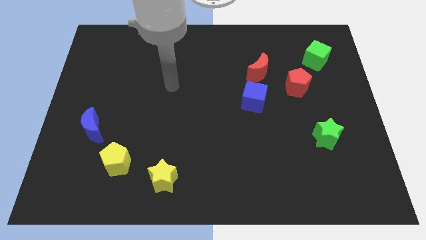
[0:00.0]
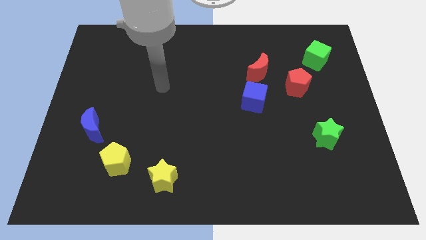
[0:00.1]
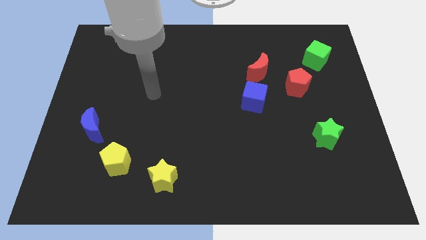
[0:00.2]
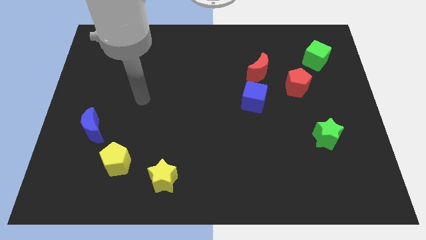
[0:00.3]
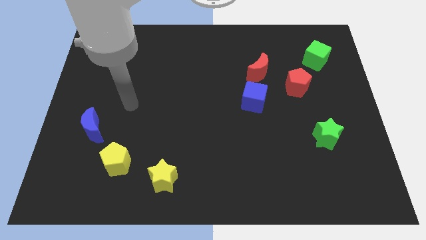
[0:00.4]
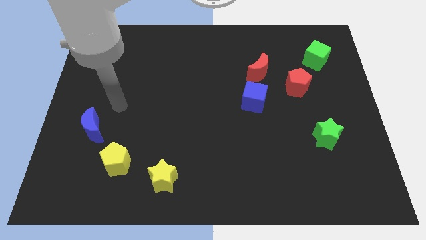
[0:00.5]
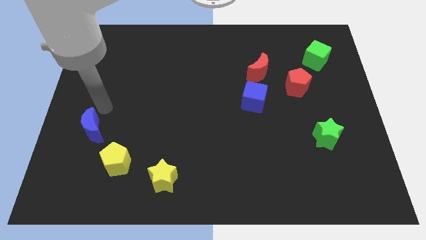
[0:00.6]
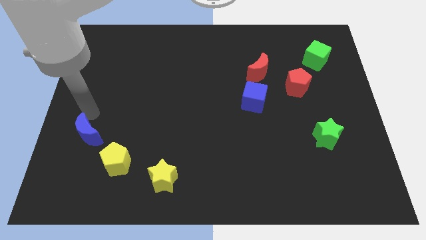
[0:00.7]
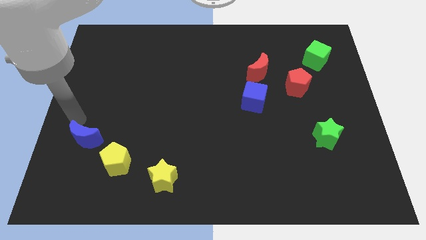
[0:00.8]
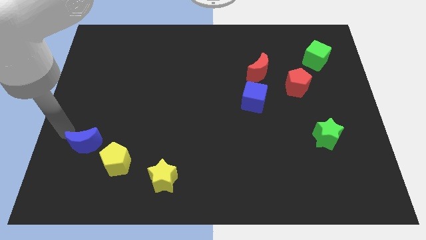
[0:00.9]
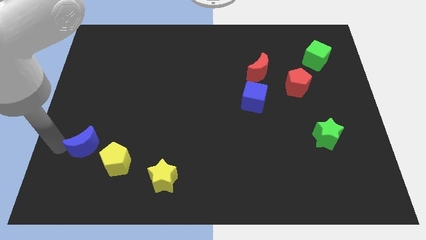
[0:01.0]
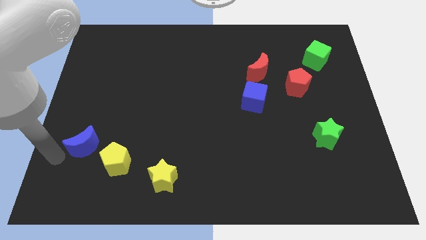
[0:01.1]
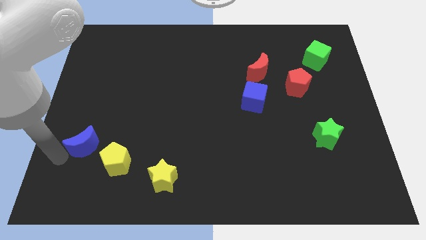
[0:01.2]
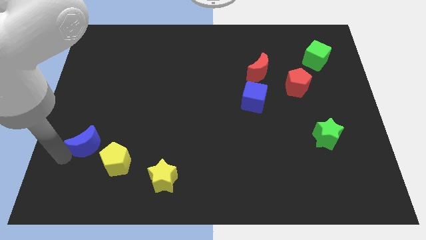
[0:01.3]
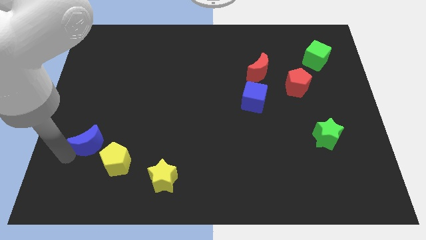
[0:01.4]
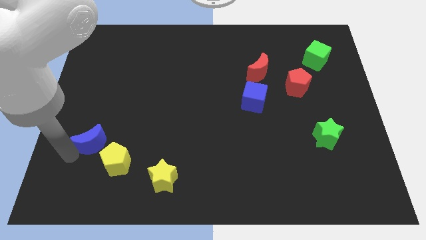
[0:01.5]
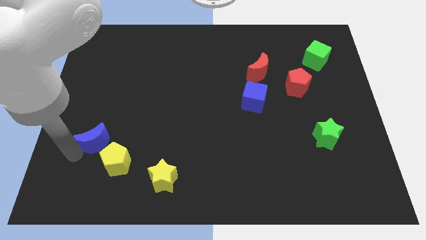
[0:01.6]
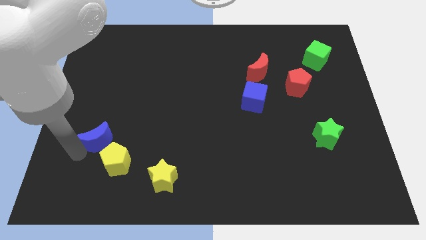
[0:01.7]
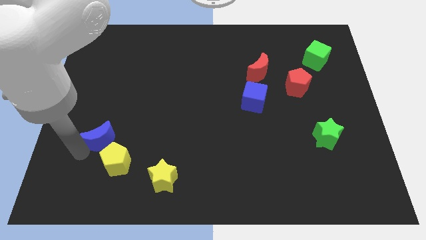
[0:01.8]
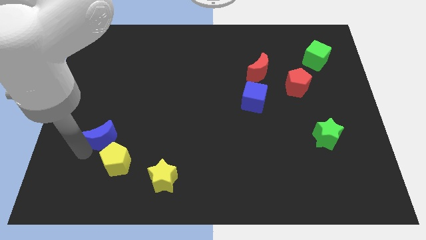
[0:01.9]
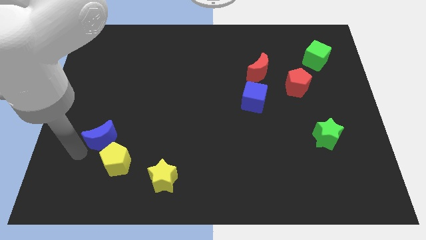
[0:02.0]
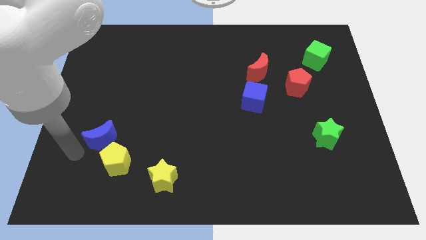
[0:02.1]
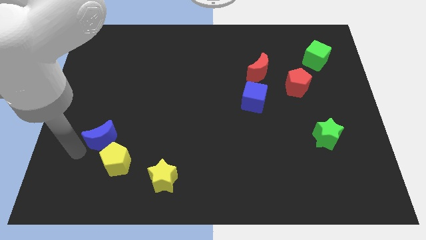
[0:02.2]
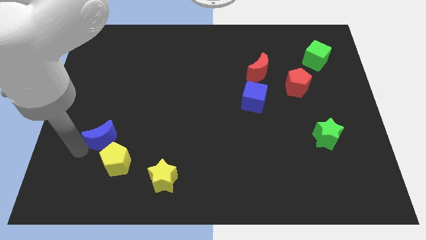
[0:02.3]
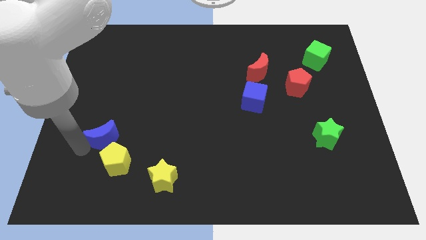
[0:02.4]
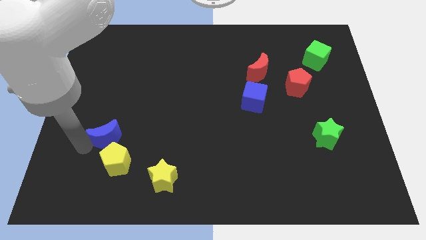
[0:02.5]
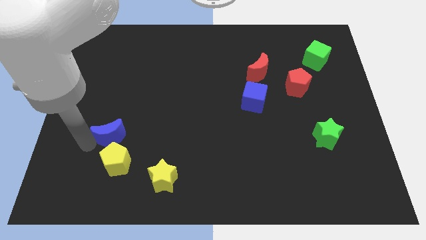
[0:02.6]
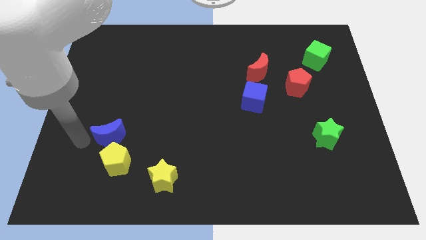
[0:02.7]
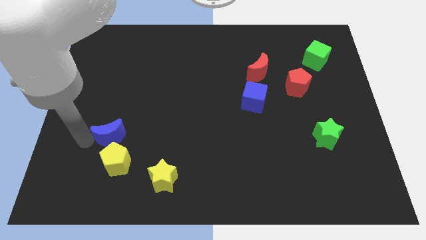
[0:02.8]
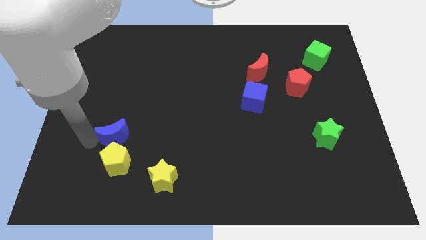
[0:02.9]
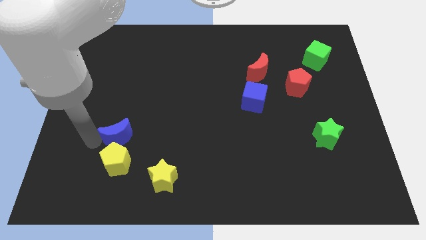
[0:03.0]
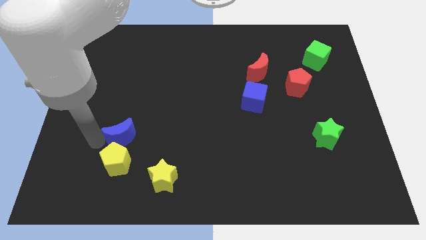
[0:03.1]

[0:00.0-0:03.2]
slide the blue moon slightly right

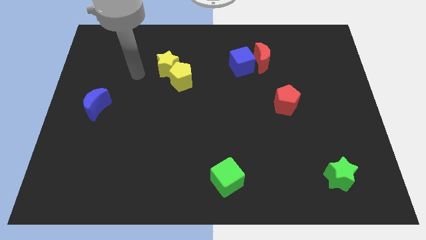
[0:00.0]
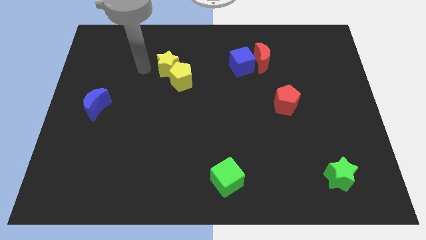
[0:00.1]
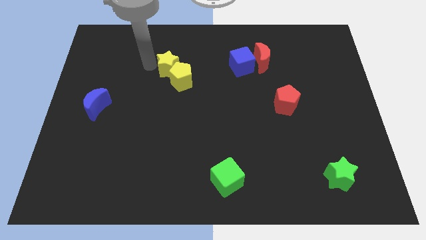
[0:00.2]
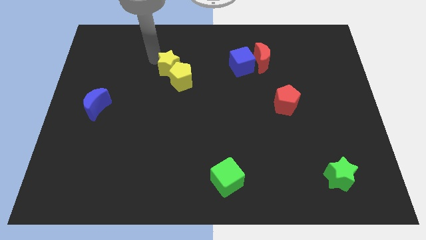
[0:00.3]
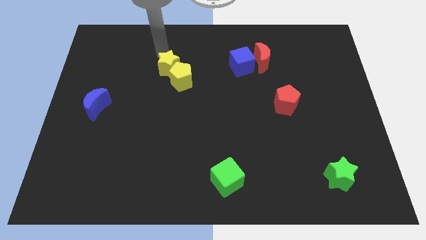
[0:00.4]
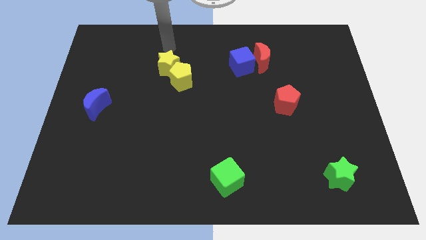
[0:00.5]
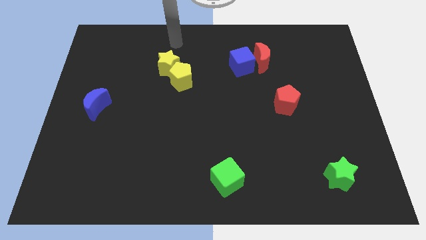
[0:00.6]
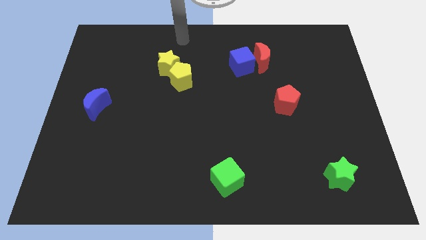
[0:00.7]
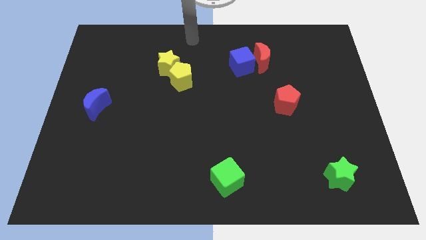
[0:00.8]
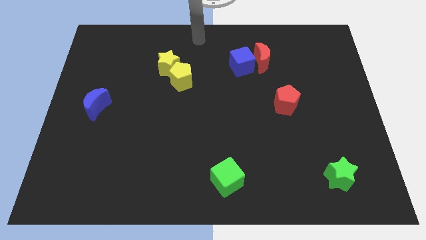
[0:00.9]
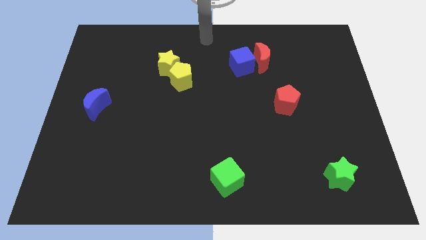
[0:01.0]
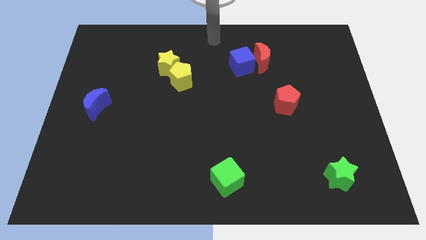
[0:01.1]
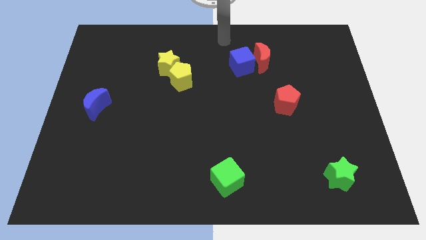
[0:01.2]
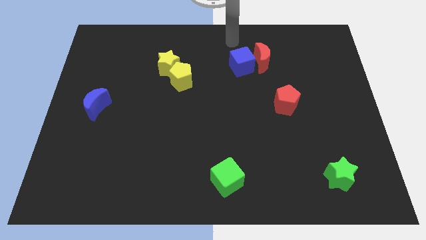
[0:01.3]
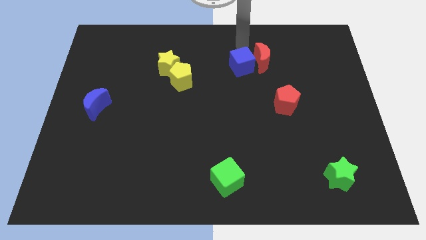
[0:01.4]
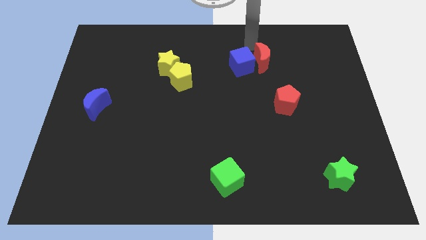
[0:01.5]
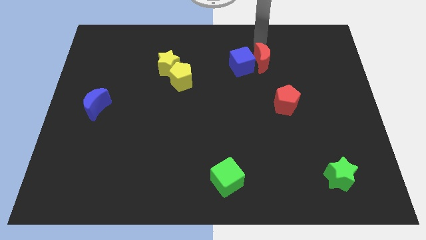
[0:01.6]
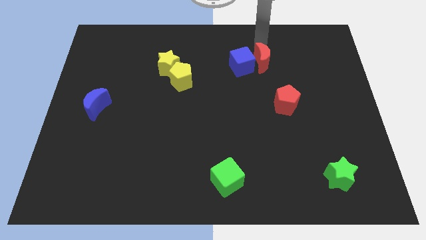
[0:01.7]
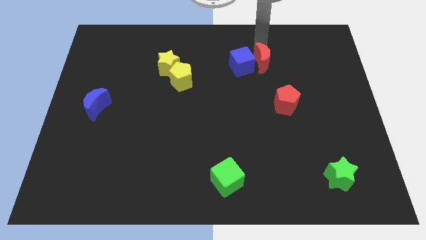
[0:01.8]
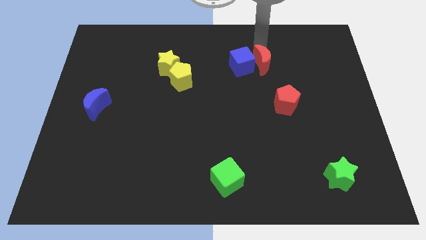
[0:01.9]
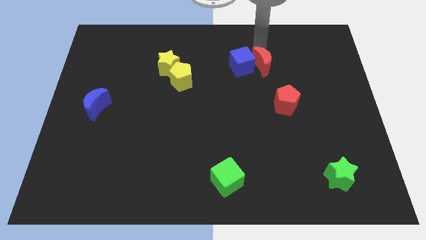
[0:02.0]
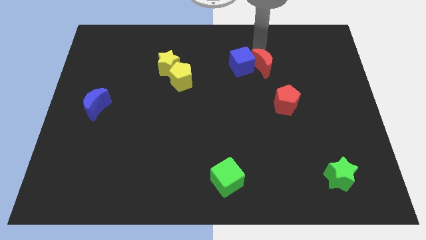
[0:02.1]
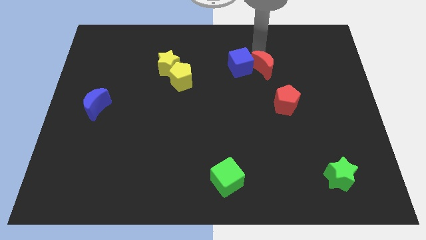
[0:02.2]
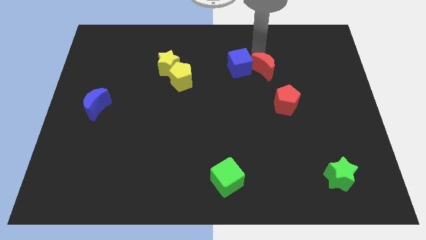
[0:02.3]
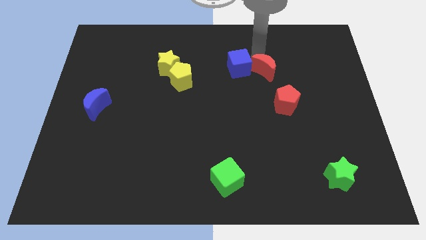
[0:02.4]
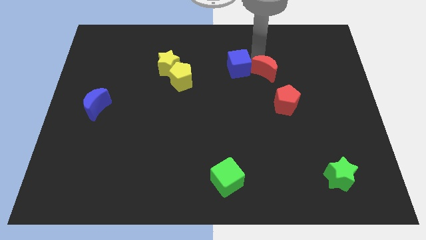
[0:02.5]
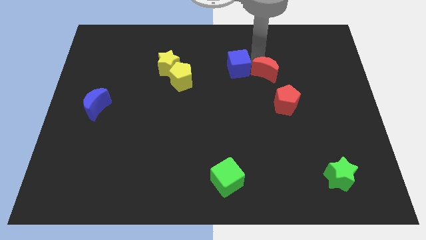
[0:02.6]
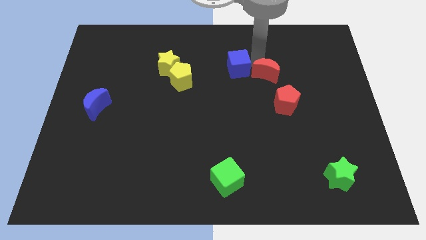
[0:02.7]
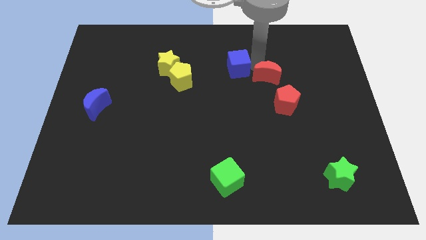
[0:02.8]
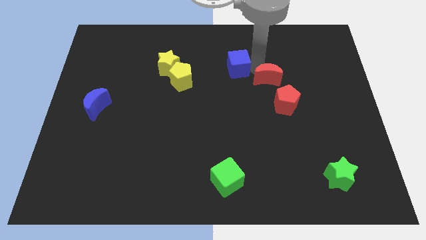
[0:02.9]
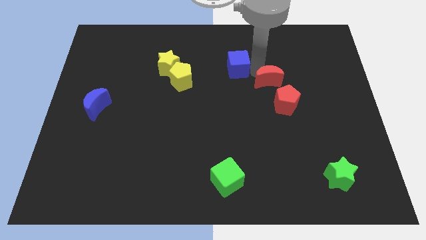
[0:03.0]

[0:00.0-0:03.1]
slide the red moon a little bit downwards

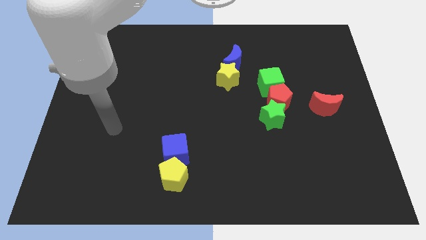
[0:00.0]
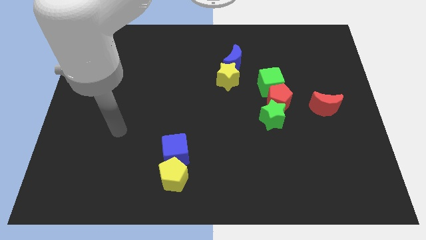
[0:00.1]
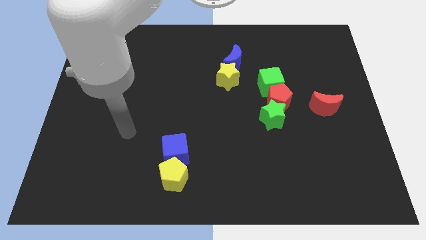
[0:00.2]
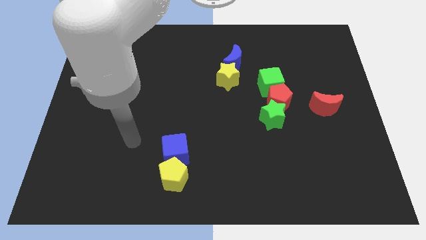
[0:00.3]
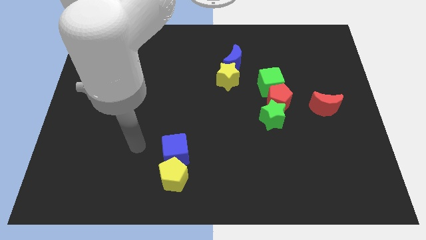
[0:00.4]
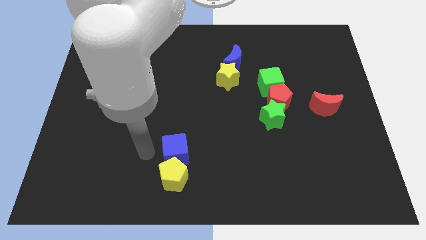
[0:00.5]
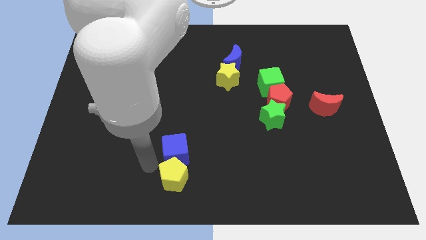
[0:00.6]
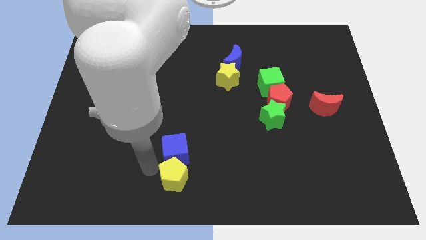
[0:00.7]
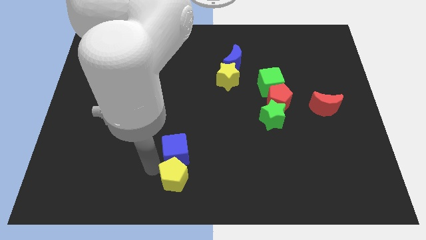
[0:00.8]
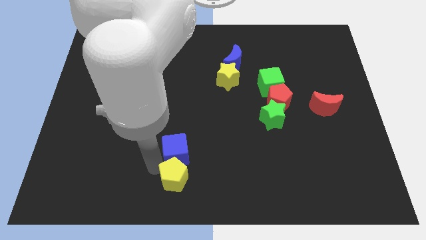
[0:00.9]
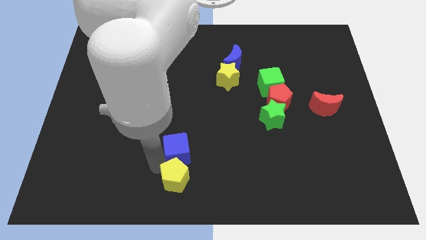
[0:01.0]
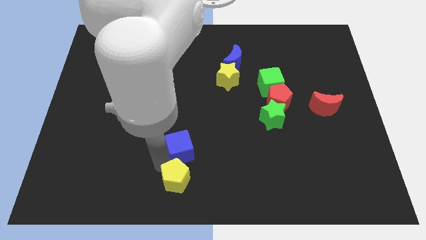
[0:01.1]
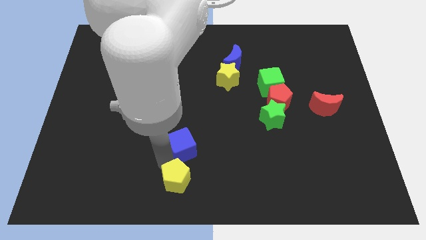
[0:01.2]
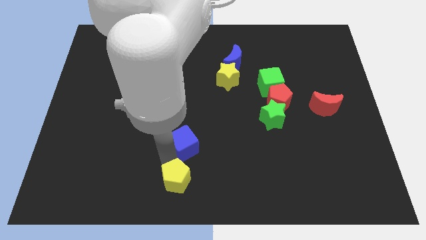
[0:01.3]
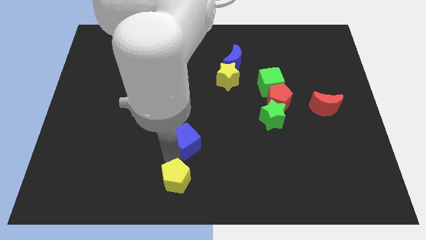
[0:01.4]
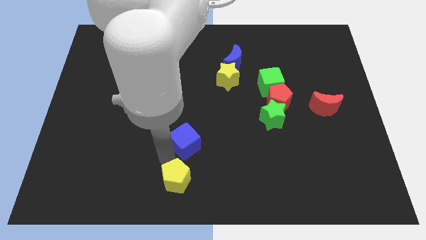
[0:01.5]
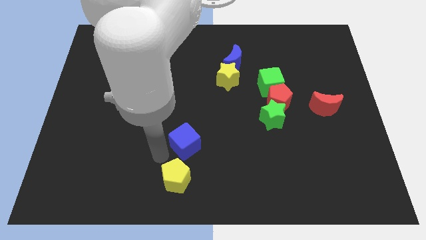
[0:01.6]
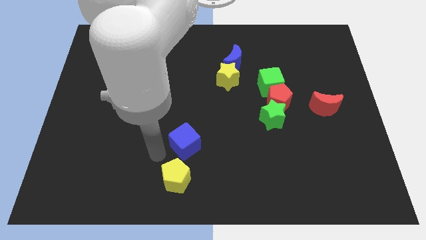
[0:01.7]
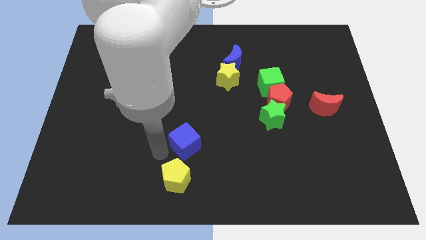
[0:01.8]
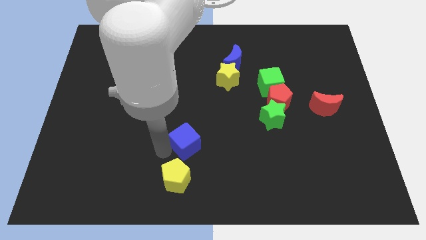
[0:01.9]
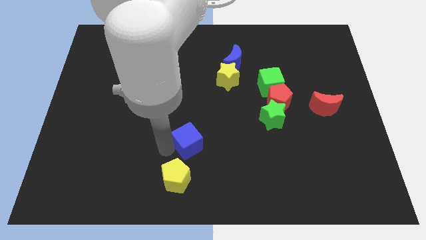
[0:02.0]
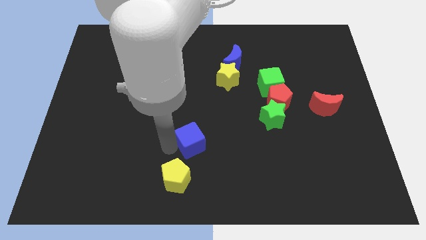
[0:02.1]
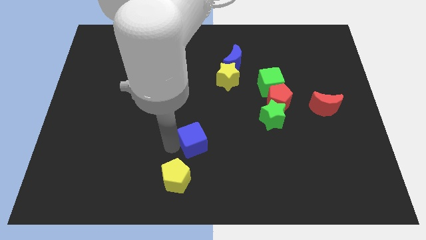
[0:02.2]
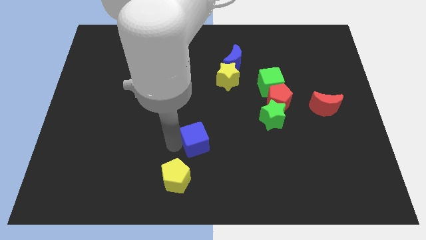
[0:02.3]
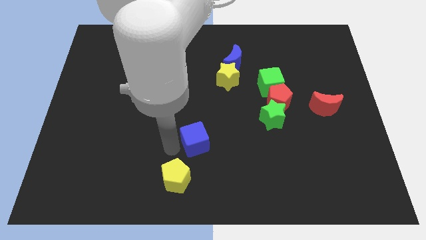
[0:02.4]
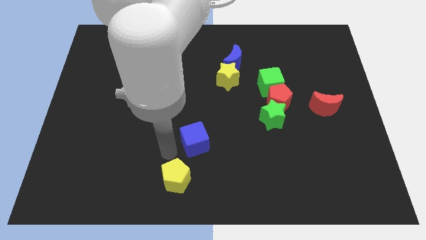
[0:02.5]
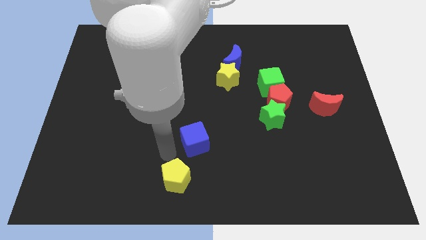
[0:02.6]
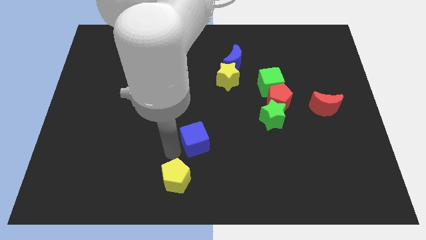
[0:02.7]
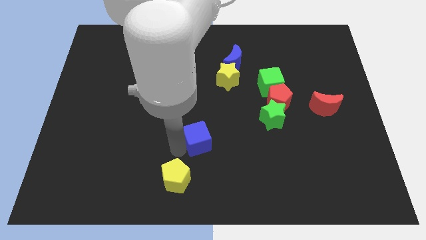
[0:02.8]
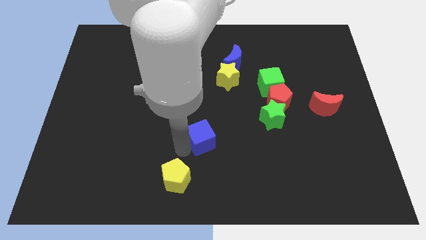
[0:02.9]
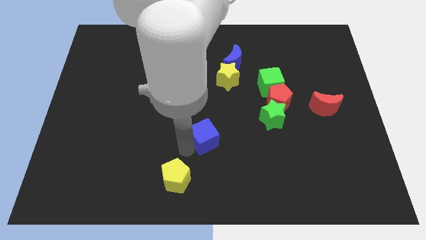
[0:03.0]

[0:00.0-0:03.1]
move the blue cube a little bit up and then right
